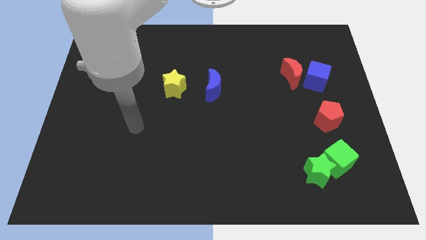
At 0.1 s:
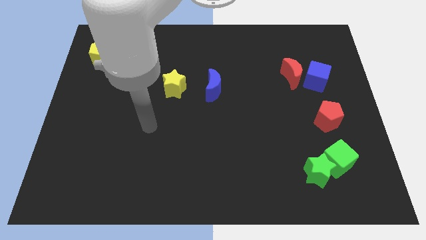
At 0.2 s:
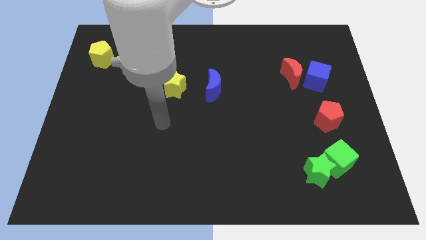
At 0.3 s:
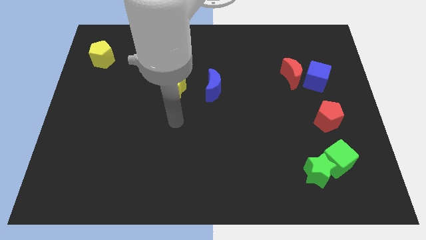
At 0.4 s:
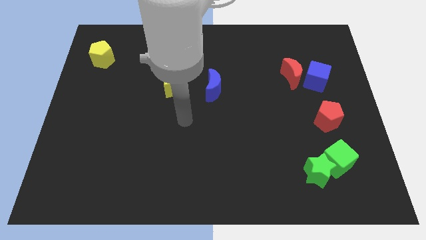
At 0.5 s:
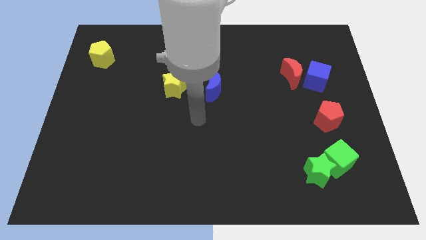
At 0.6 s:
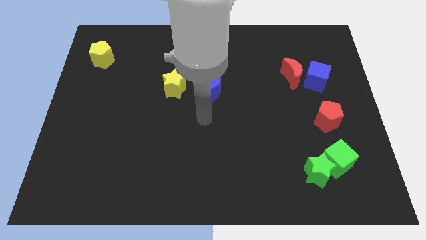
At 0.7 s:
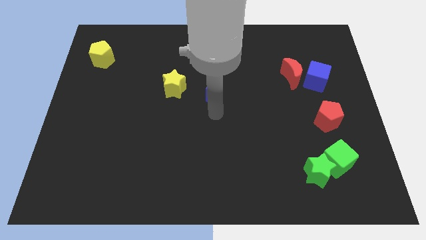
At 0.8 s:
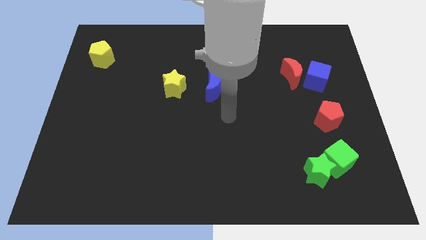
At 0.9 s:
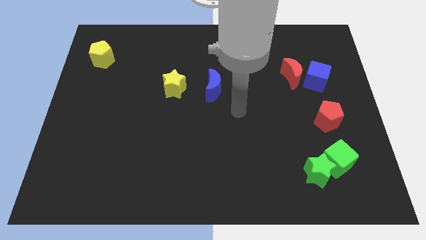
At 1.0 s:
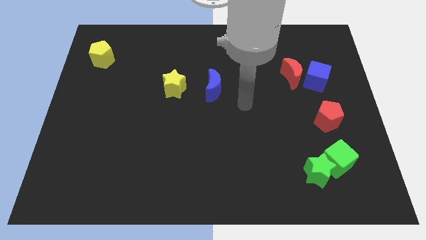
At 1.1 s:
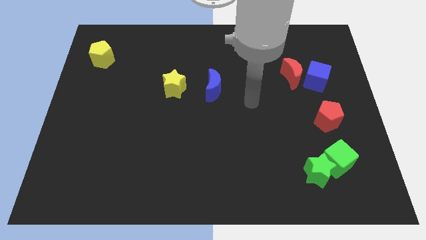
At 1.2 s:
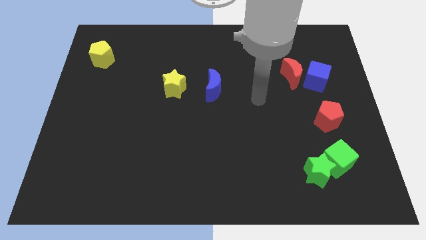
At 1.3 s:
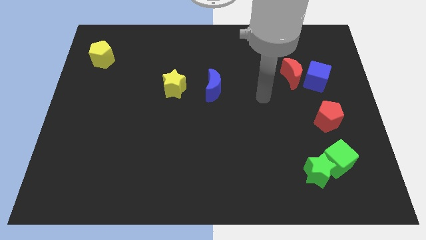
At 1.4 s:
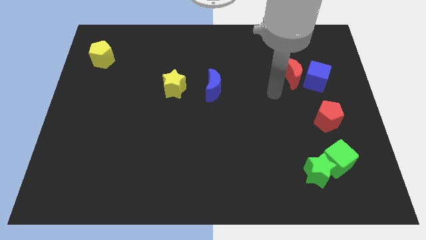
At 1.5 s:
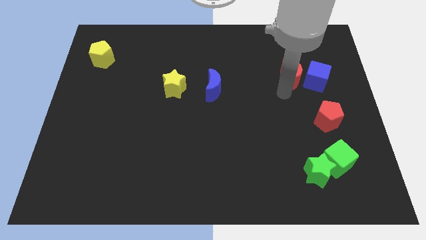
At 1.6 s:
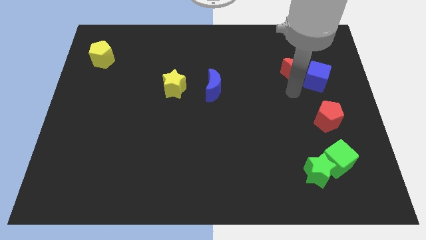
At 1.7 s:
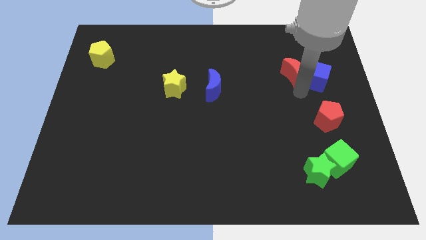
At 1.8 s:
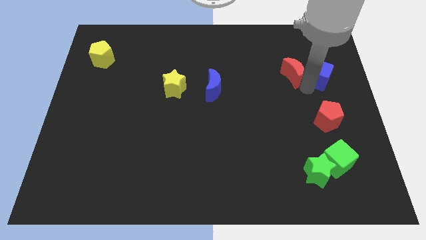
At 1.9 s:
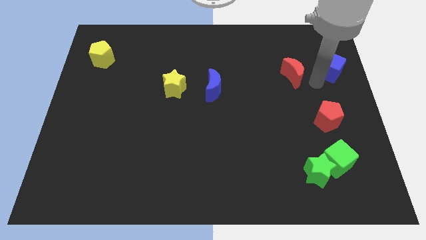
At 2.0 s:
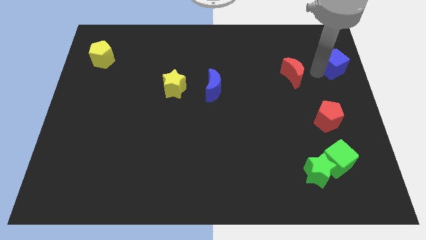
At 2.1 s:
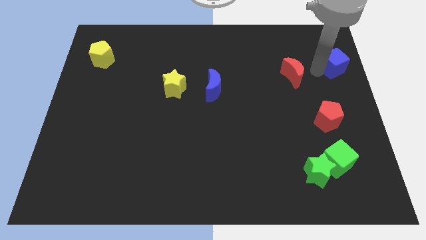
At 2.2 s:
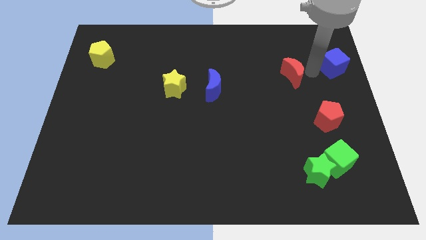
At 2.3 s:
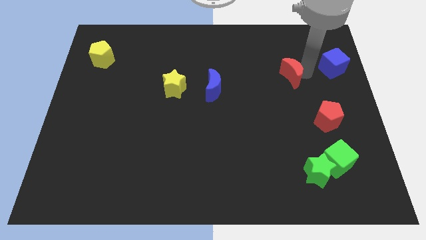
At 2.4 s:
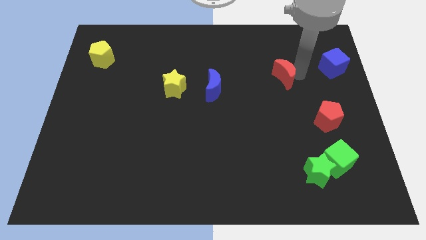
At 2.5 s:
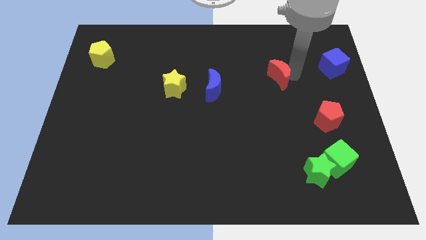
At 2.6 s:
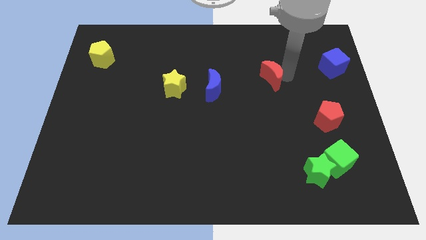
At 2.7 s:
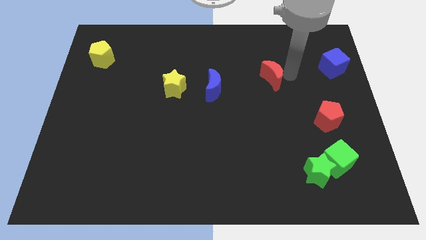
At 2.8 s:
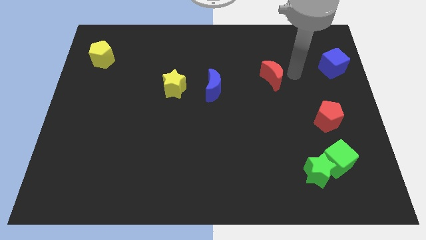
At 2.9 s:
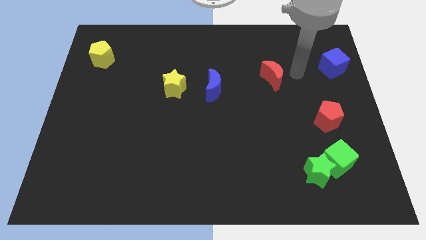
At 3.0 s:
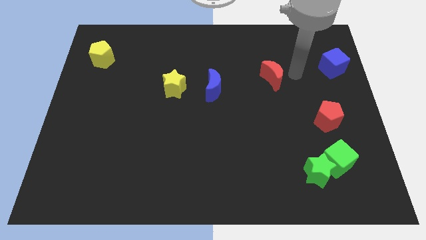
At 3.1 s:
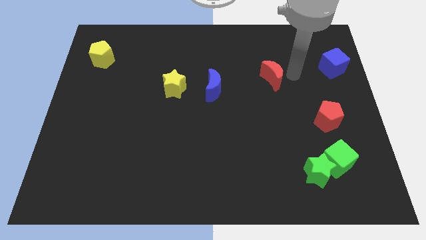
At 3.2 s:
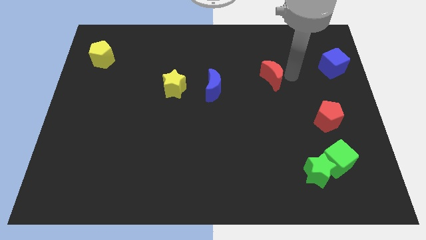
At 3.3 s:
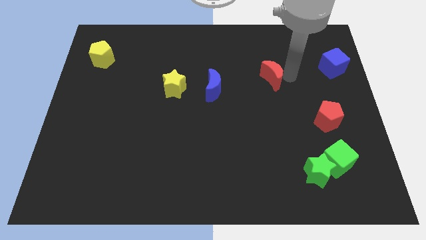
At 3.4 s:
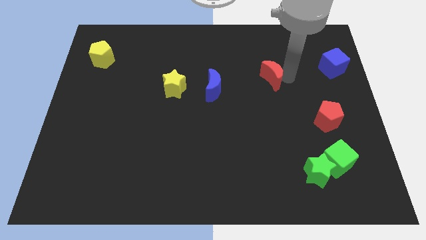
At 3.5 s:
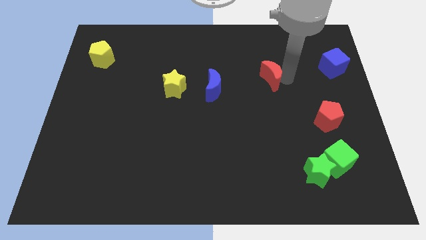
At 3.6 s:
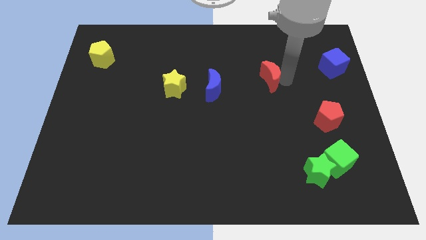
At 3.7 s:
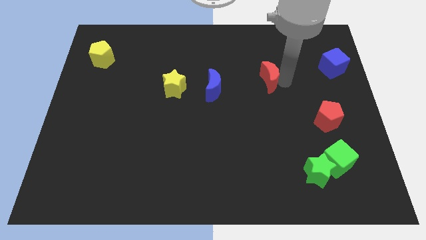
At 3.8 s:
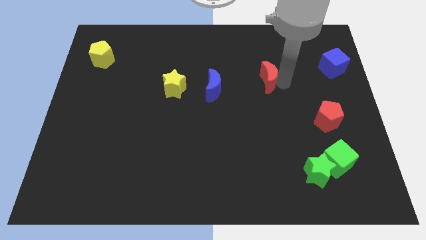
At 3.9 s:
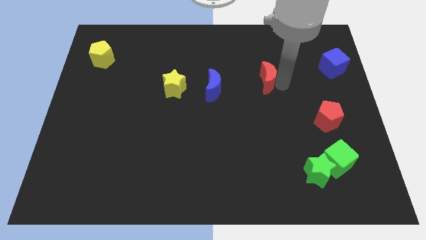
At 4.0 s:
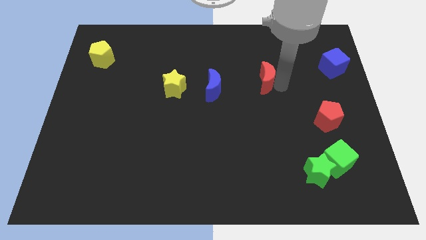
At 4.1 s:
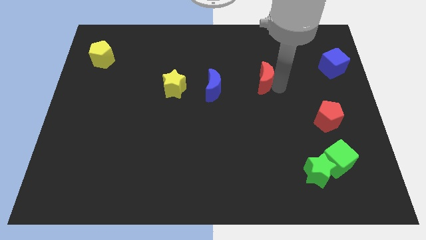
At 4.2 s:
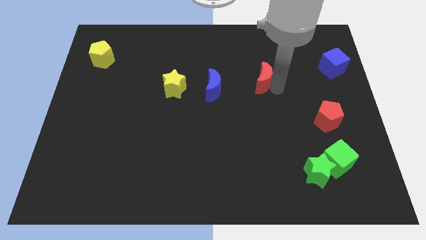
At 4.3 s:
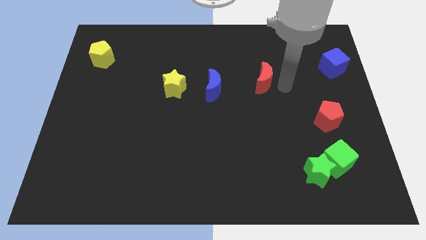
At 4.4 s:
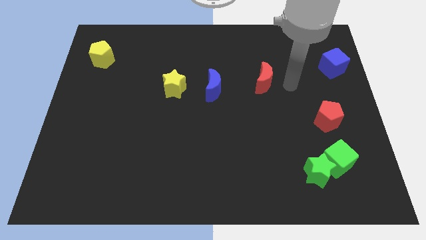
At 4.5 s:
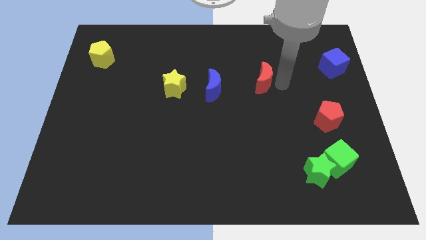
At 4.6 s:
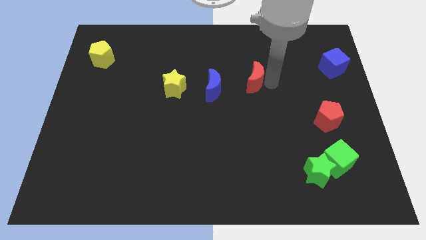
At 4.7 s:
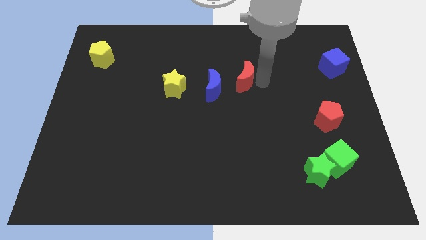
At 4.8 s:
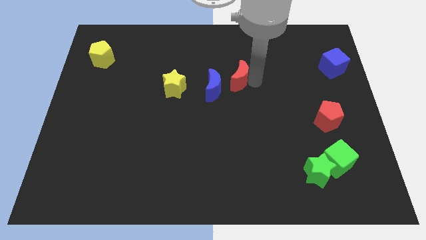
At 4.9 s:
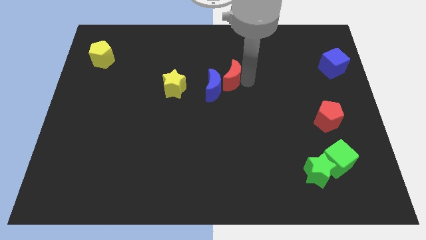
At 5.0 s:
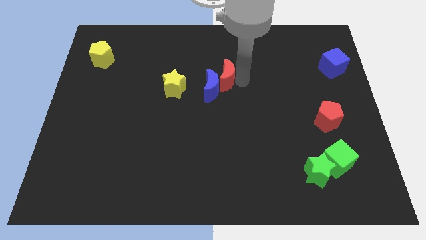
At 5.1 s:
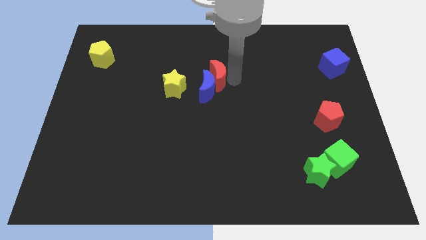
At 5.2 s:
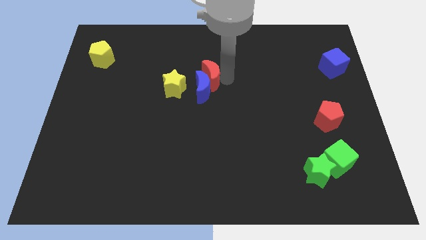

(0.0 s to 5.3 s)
push the red moon to the left

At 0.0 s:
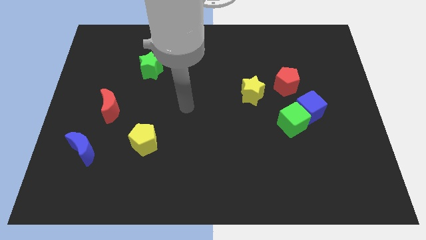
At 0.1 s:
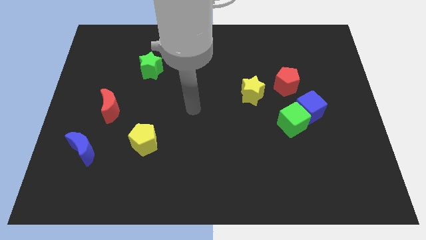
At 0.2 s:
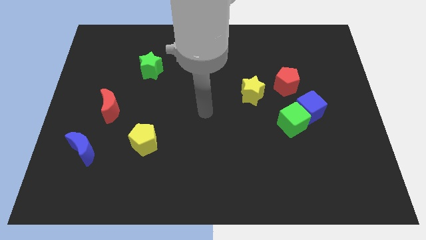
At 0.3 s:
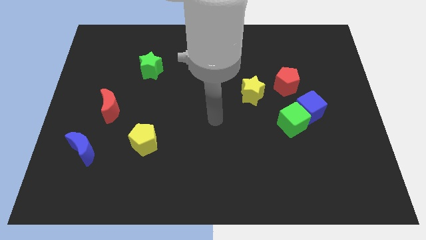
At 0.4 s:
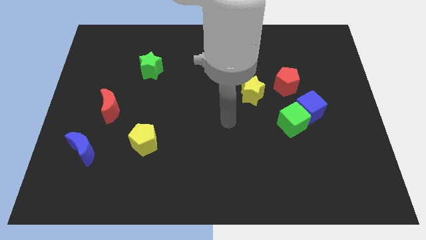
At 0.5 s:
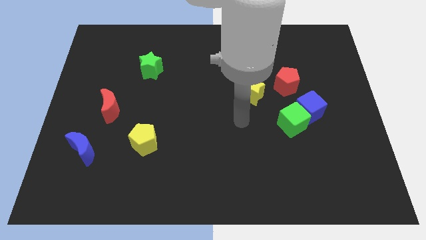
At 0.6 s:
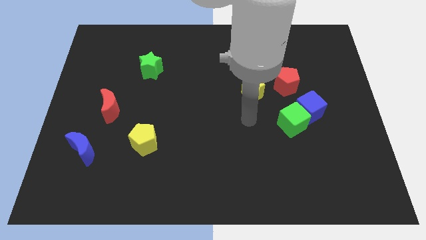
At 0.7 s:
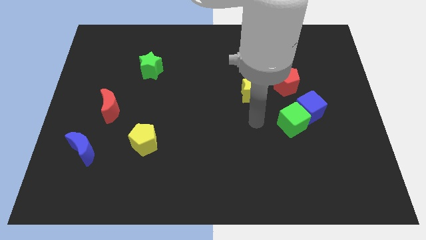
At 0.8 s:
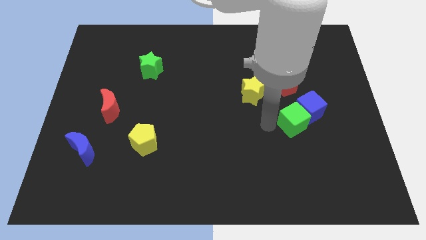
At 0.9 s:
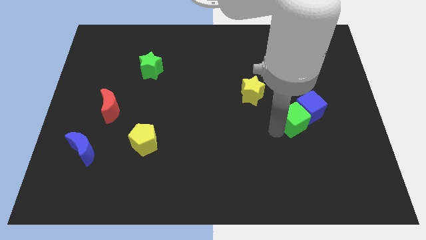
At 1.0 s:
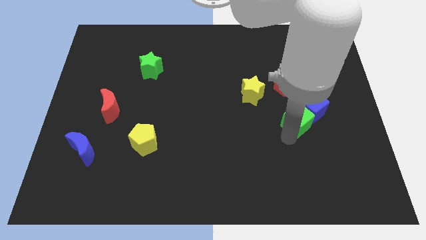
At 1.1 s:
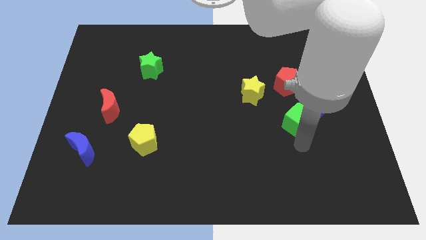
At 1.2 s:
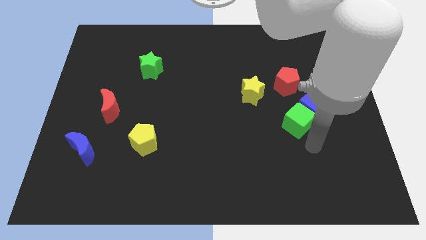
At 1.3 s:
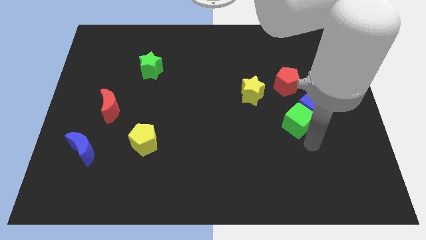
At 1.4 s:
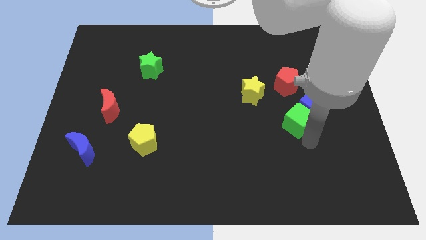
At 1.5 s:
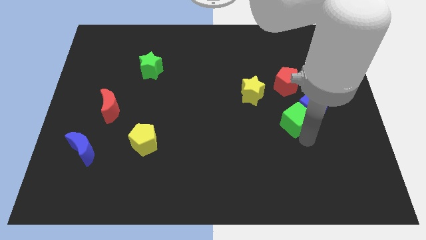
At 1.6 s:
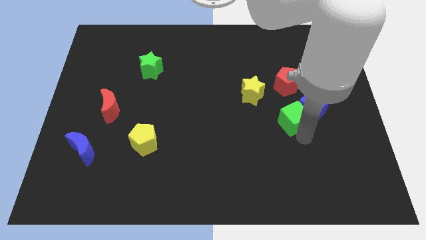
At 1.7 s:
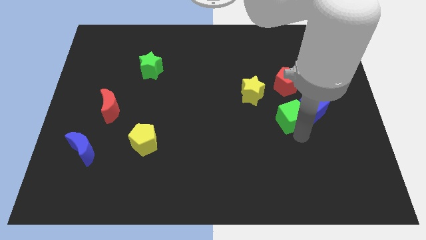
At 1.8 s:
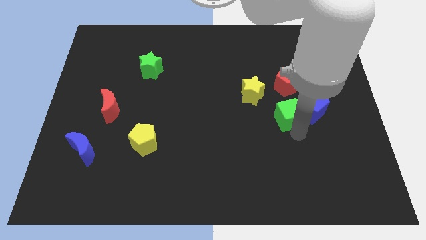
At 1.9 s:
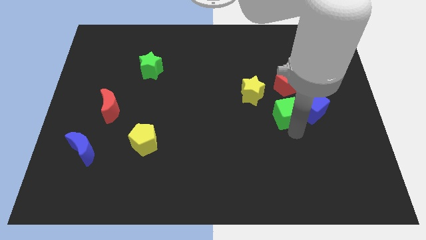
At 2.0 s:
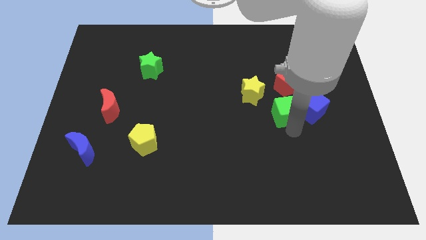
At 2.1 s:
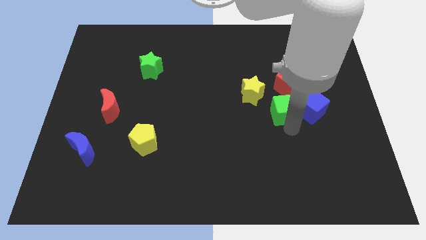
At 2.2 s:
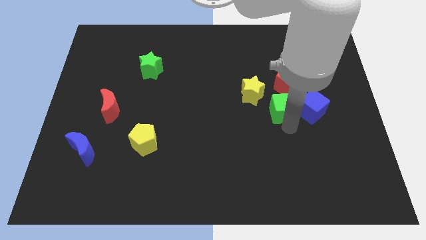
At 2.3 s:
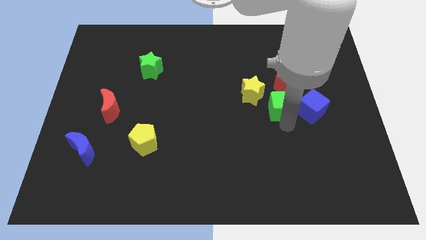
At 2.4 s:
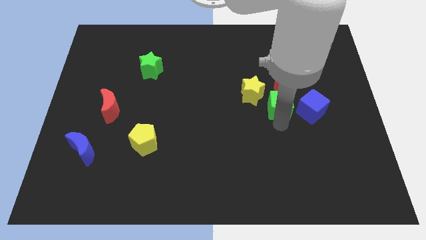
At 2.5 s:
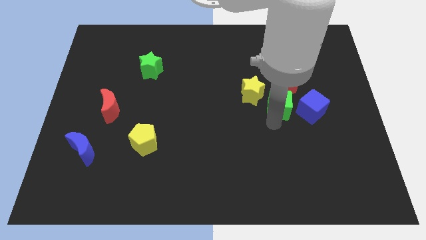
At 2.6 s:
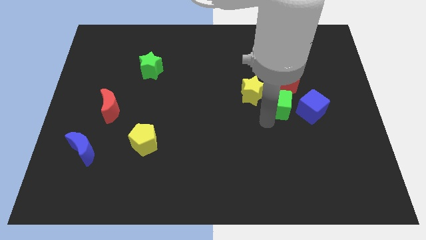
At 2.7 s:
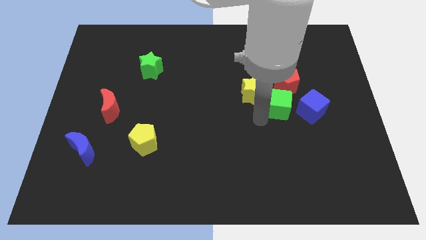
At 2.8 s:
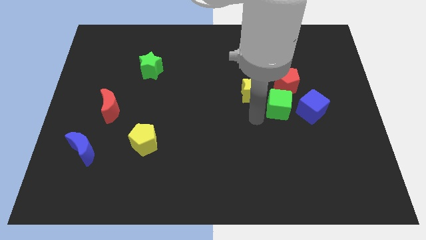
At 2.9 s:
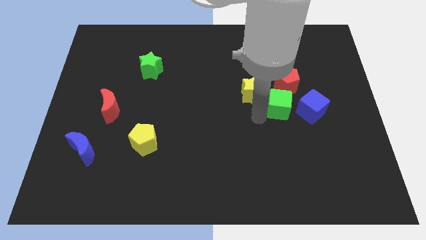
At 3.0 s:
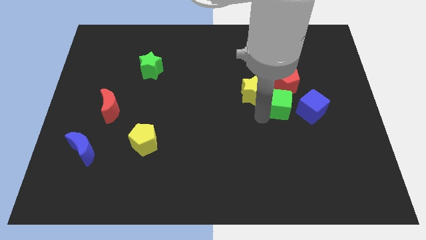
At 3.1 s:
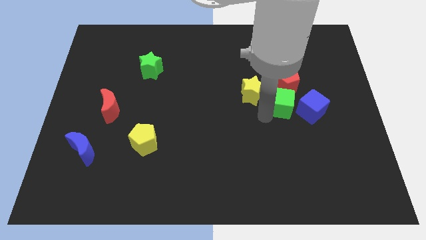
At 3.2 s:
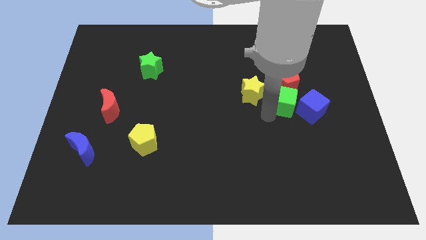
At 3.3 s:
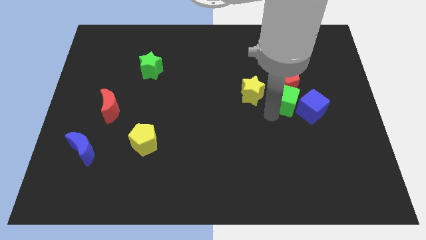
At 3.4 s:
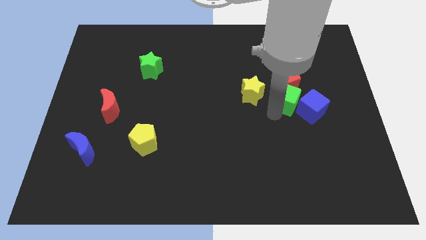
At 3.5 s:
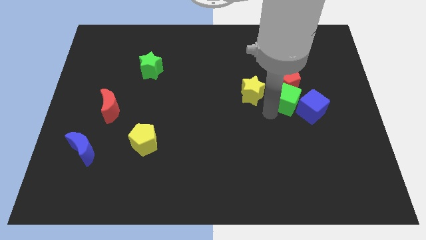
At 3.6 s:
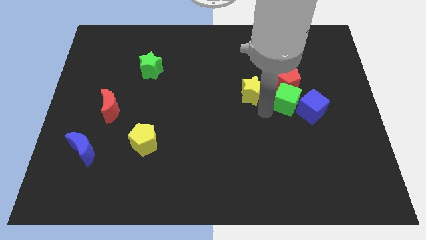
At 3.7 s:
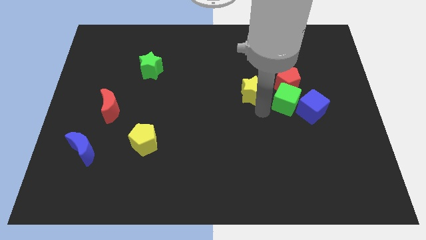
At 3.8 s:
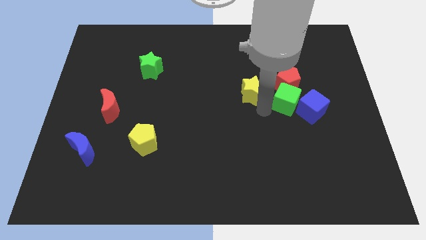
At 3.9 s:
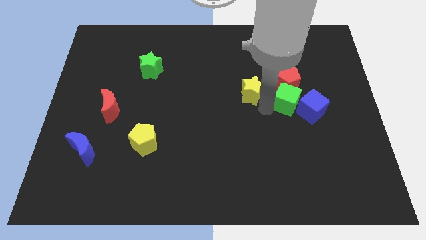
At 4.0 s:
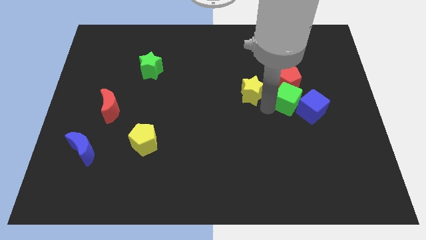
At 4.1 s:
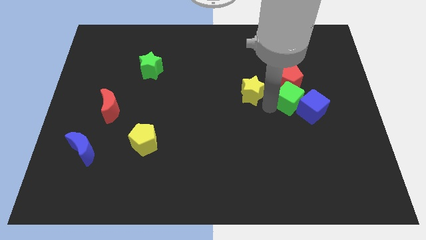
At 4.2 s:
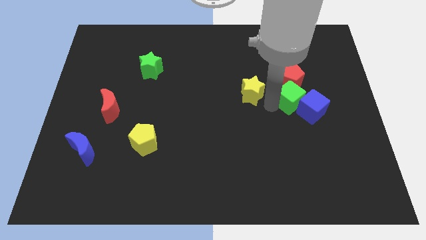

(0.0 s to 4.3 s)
slightly push the green cube upwards
